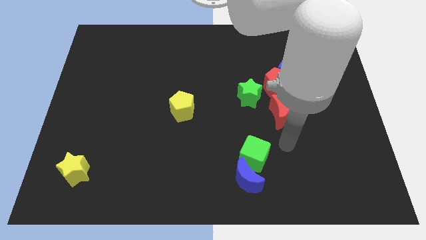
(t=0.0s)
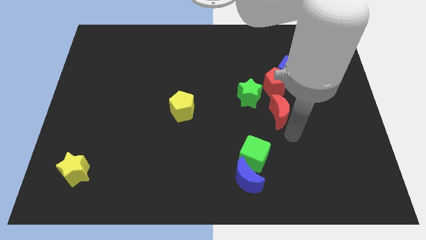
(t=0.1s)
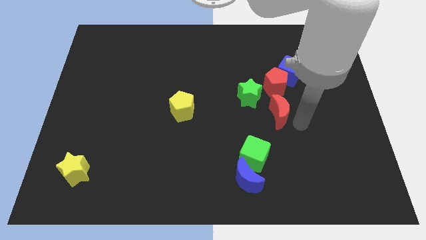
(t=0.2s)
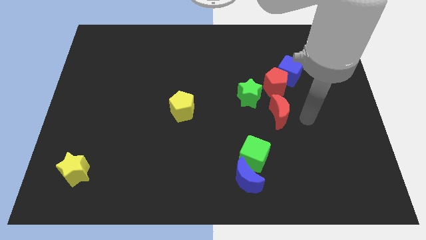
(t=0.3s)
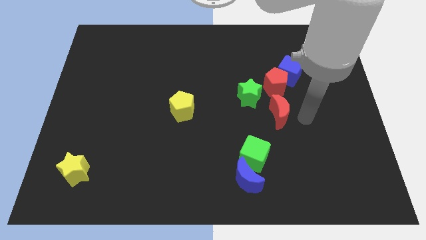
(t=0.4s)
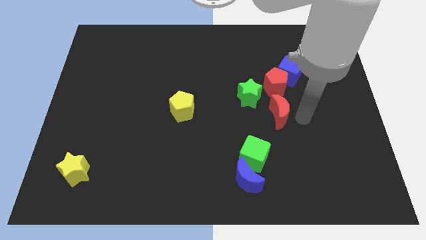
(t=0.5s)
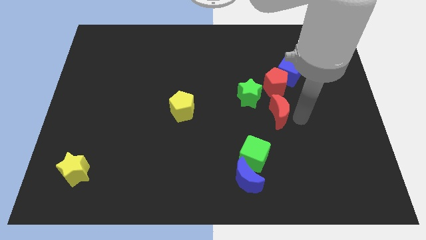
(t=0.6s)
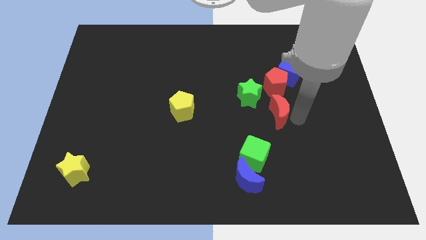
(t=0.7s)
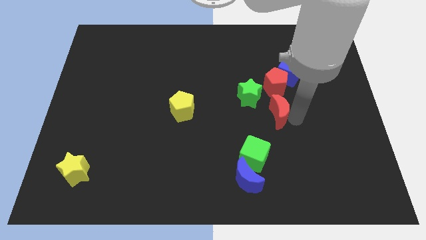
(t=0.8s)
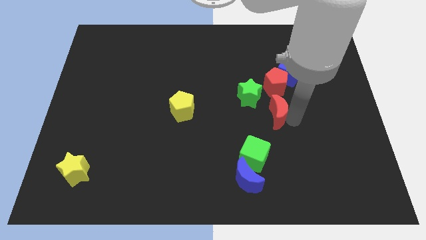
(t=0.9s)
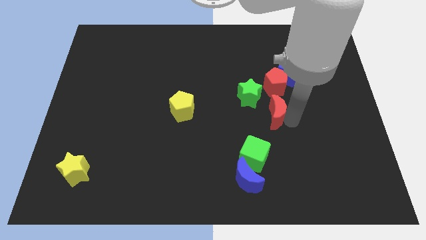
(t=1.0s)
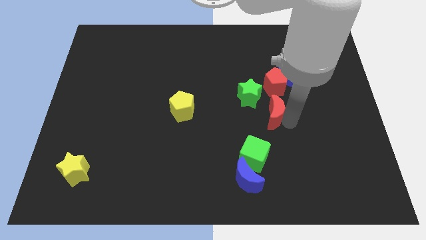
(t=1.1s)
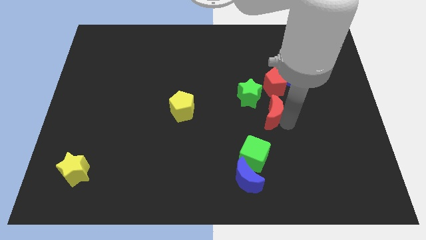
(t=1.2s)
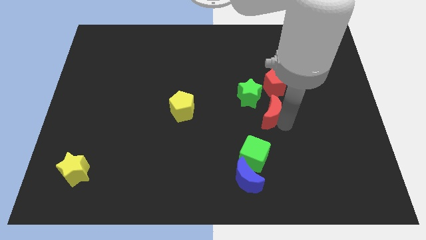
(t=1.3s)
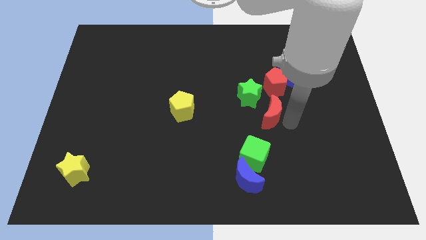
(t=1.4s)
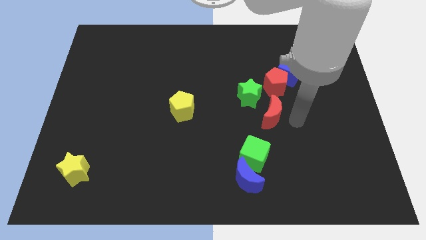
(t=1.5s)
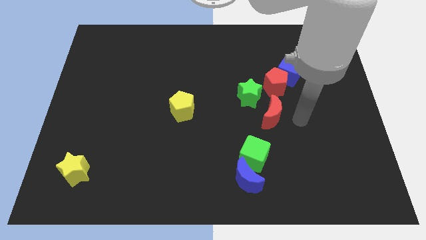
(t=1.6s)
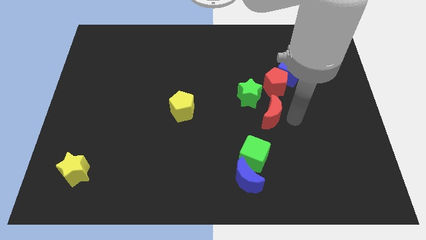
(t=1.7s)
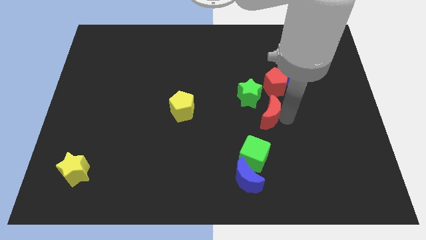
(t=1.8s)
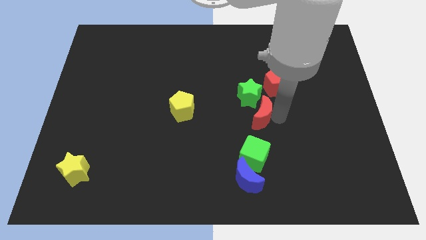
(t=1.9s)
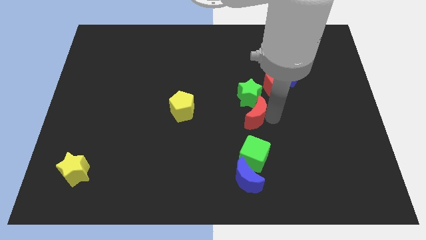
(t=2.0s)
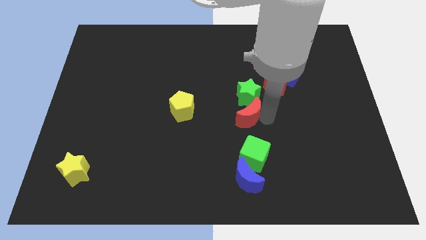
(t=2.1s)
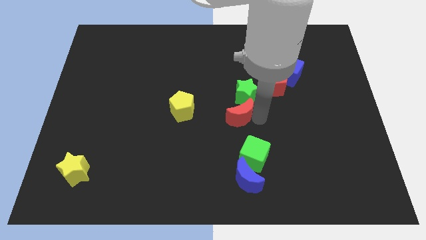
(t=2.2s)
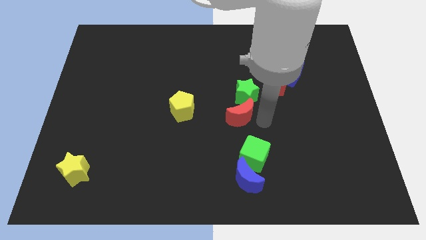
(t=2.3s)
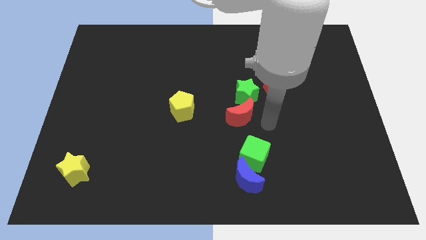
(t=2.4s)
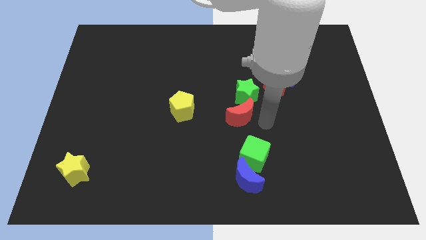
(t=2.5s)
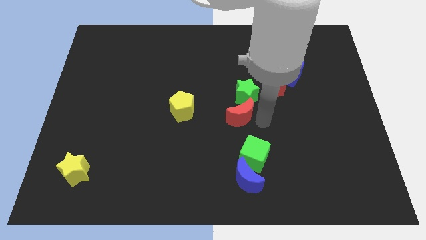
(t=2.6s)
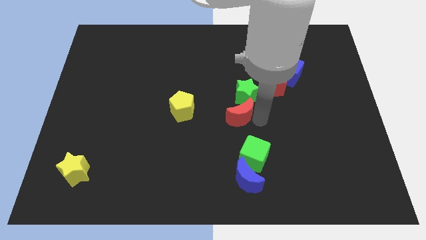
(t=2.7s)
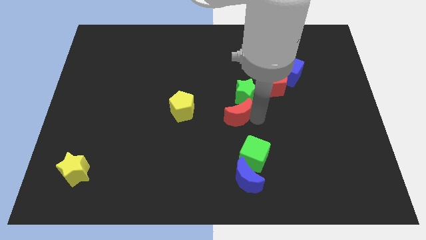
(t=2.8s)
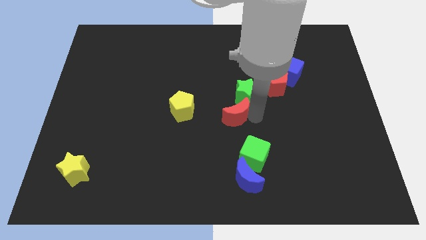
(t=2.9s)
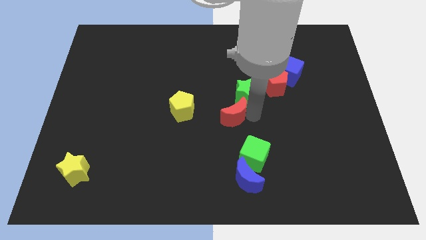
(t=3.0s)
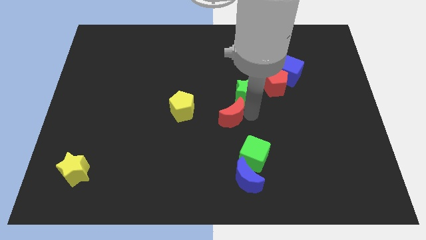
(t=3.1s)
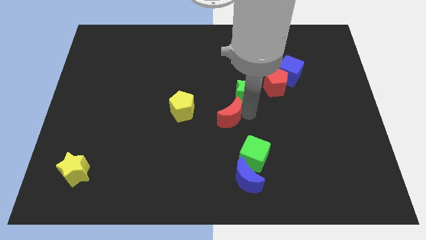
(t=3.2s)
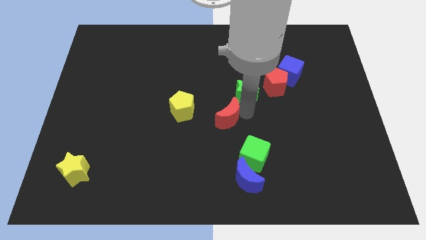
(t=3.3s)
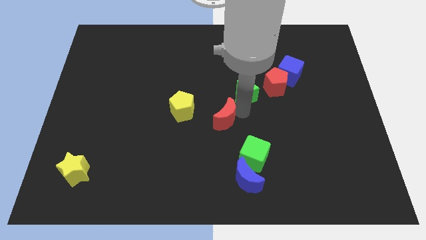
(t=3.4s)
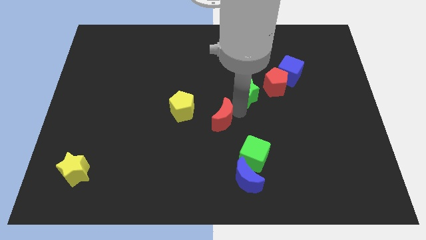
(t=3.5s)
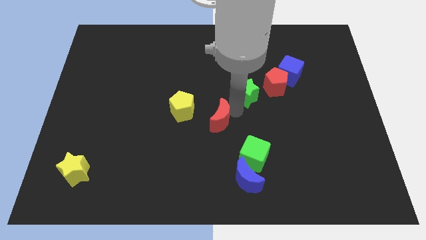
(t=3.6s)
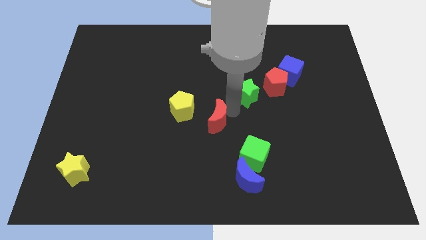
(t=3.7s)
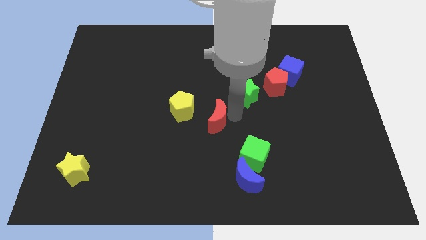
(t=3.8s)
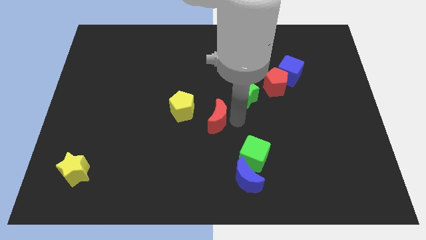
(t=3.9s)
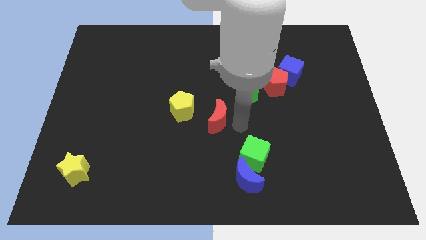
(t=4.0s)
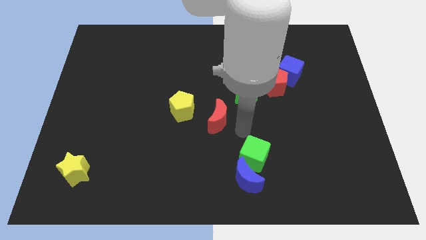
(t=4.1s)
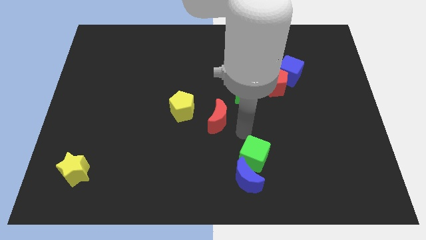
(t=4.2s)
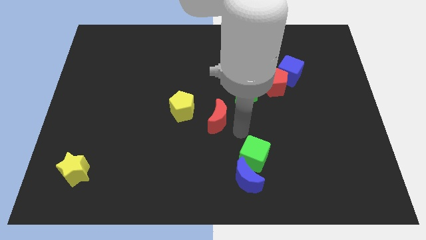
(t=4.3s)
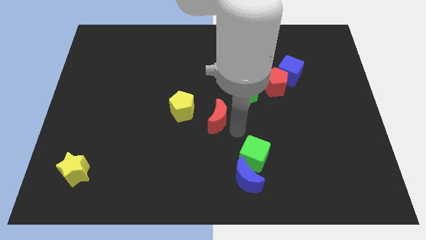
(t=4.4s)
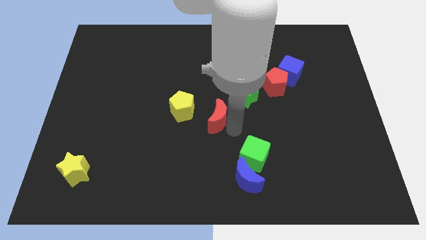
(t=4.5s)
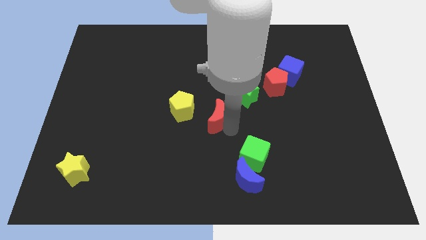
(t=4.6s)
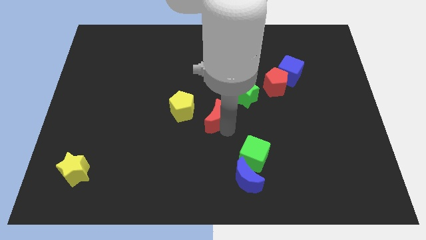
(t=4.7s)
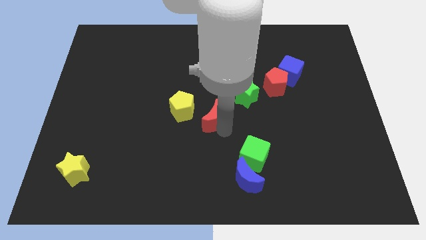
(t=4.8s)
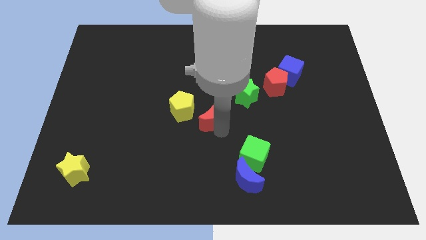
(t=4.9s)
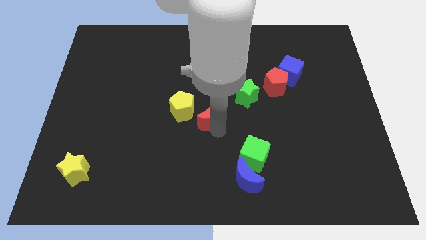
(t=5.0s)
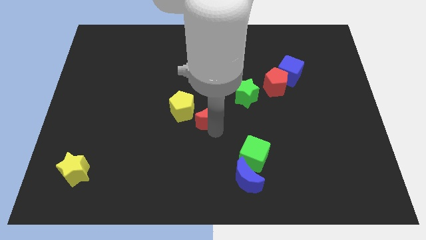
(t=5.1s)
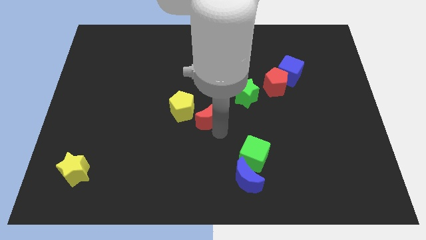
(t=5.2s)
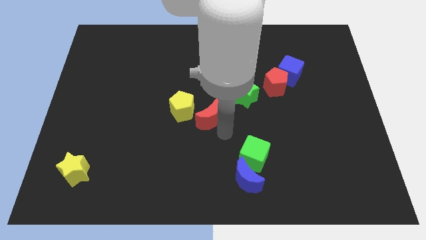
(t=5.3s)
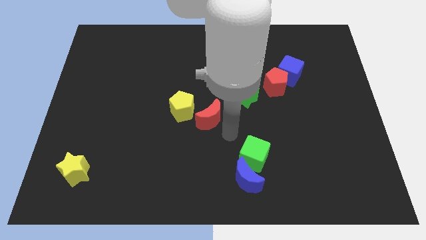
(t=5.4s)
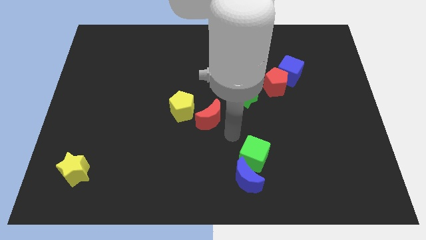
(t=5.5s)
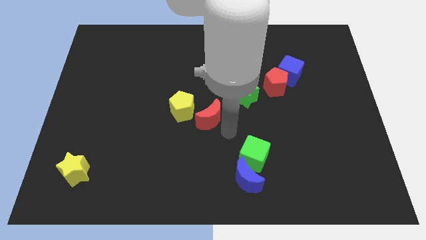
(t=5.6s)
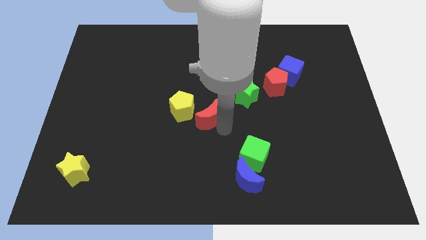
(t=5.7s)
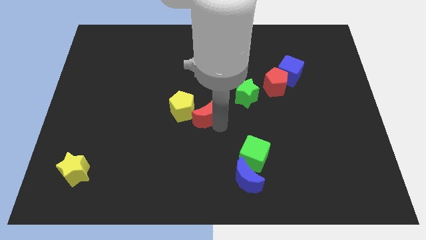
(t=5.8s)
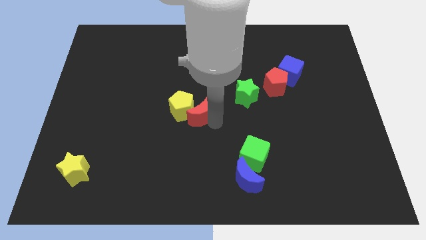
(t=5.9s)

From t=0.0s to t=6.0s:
push the red moon towards the yellow pentagon
